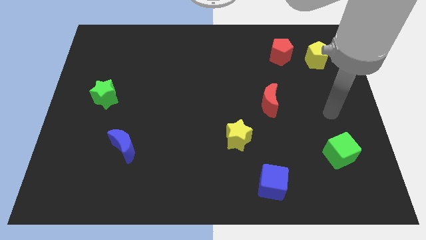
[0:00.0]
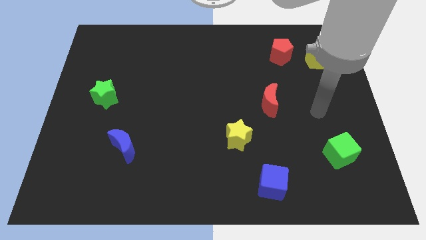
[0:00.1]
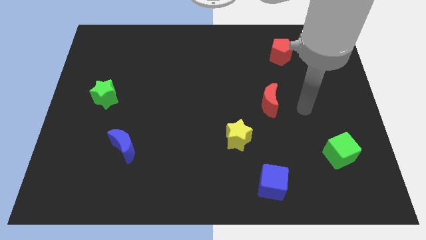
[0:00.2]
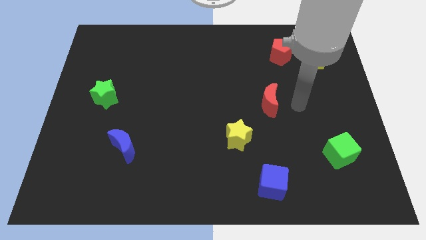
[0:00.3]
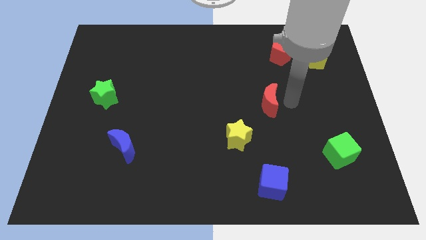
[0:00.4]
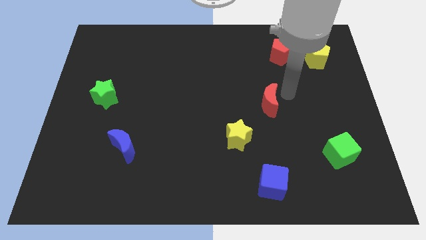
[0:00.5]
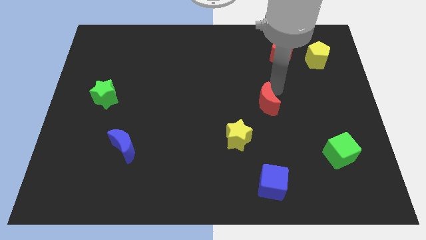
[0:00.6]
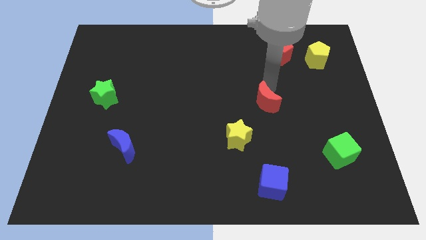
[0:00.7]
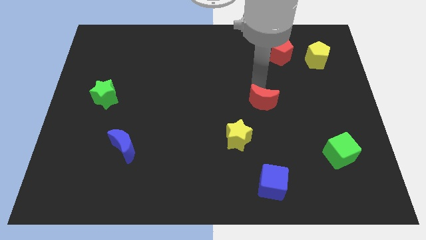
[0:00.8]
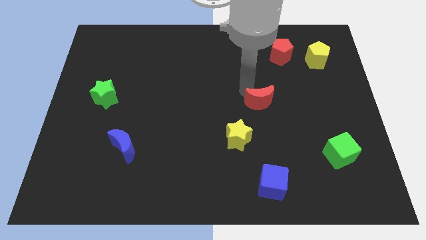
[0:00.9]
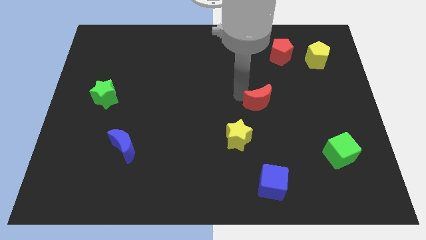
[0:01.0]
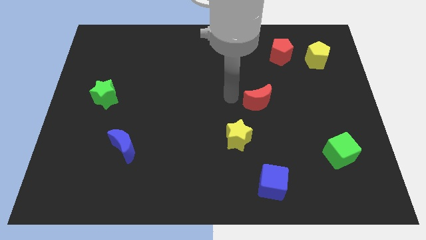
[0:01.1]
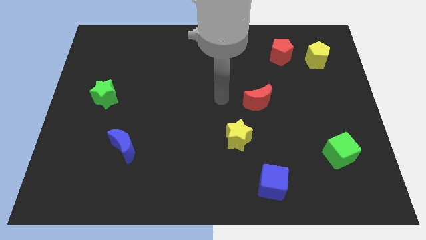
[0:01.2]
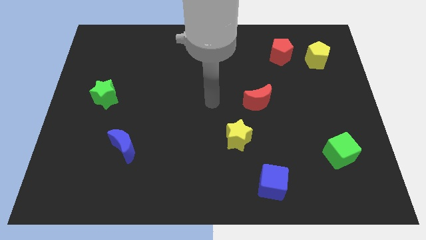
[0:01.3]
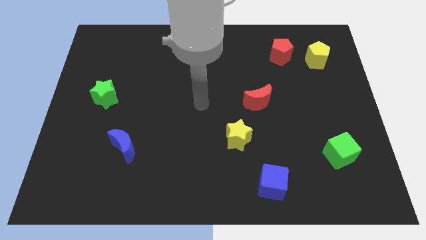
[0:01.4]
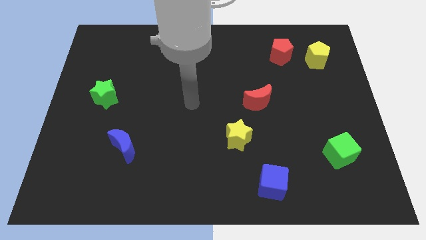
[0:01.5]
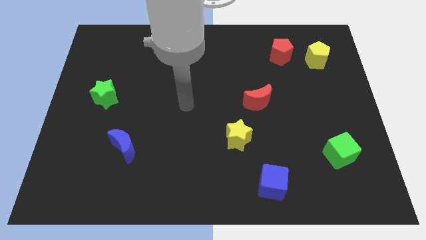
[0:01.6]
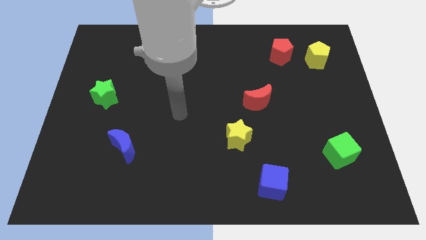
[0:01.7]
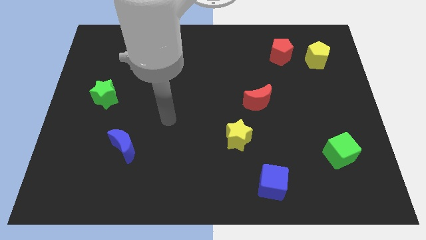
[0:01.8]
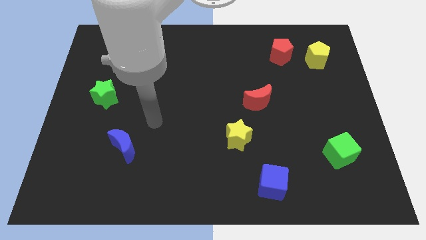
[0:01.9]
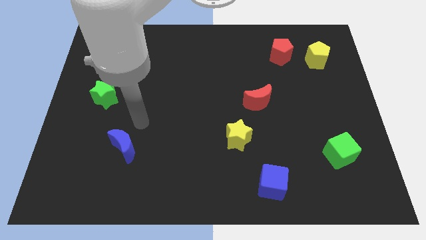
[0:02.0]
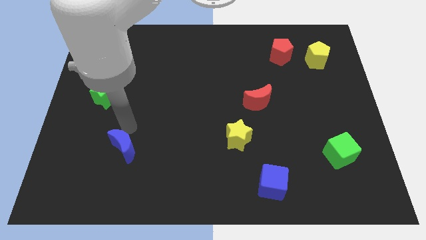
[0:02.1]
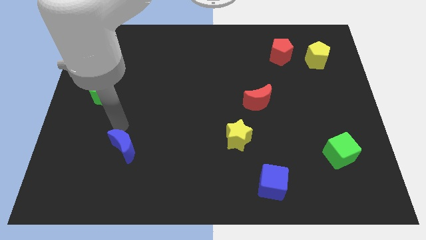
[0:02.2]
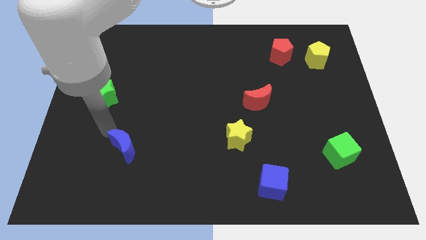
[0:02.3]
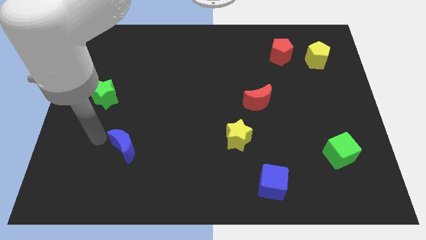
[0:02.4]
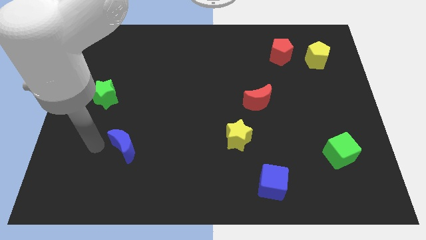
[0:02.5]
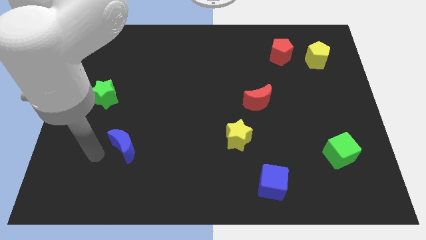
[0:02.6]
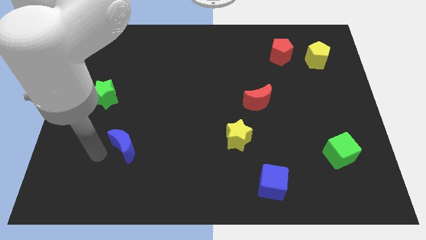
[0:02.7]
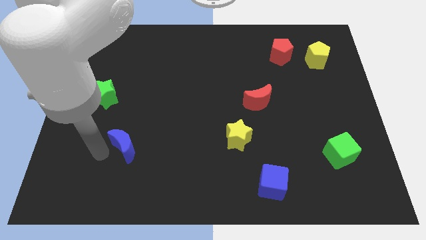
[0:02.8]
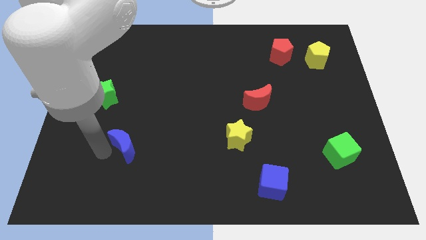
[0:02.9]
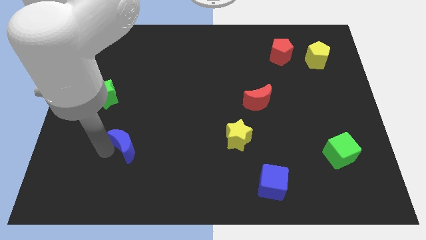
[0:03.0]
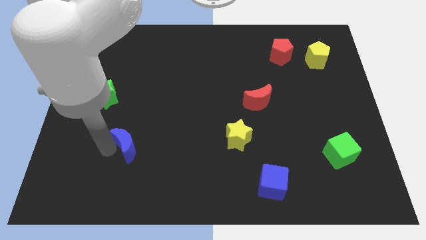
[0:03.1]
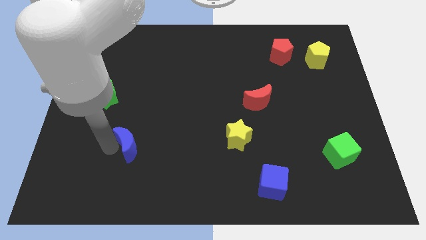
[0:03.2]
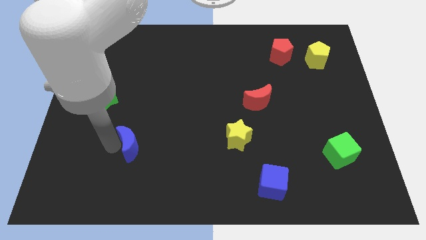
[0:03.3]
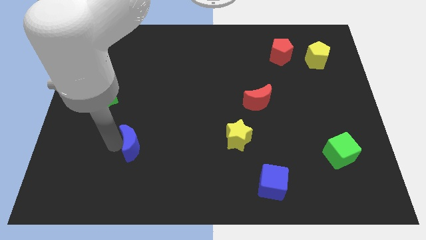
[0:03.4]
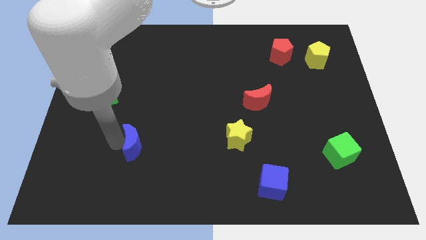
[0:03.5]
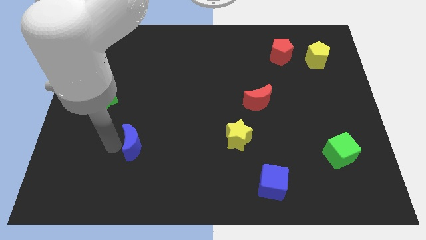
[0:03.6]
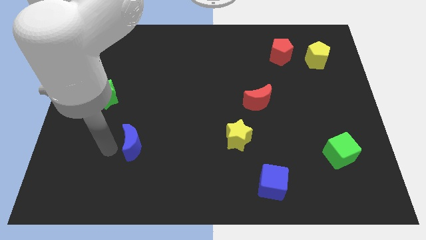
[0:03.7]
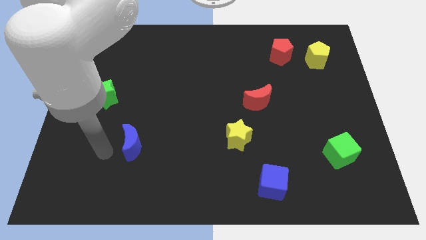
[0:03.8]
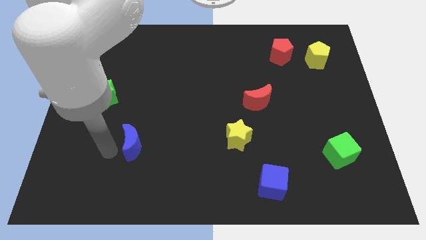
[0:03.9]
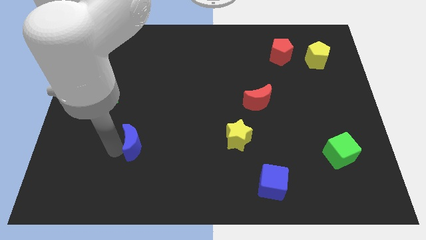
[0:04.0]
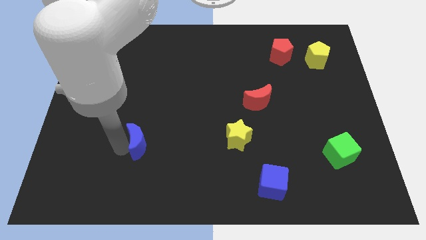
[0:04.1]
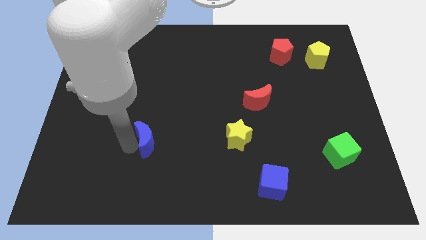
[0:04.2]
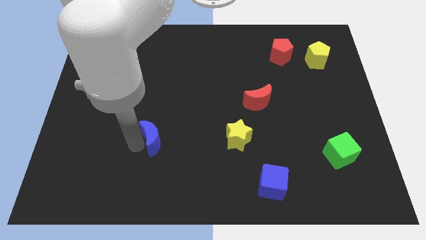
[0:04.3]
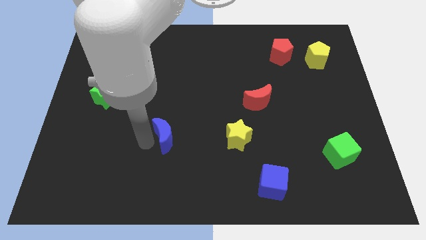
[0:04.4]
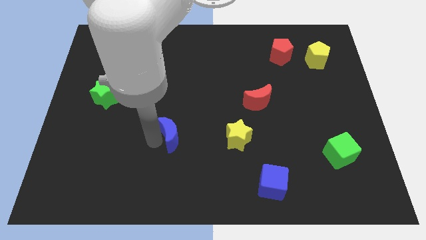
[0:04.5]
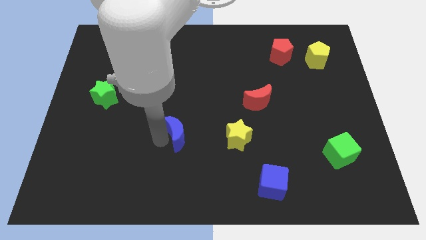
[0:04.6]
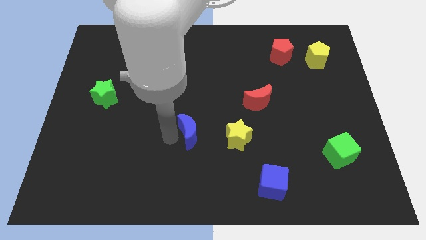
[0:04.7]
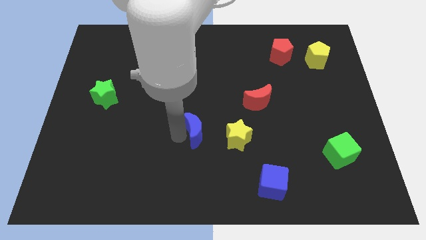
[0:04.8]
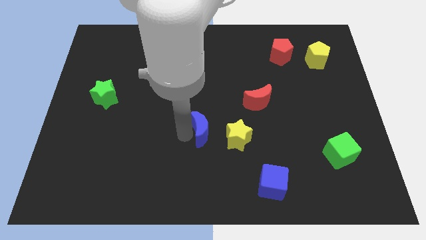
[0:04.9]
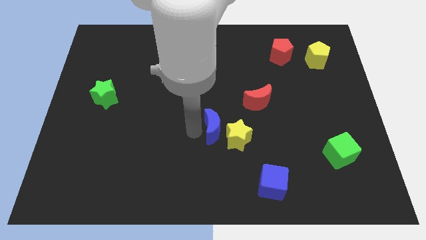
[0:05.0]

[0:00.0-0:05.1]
put the blue moon next to the yellow star
